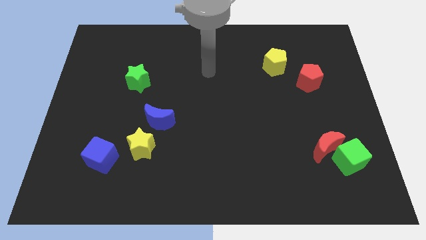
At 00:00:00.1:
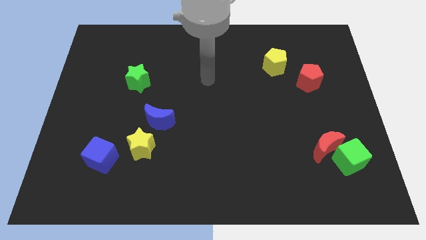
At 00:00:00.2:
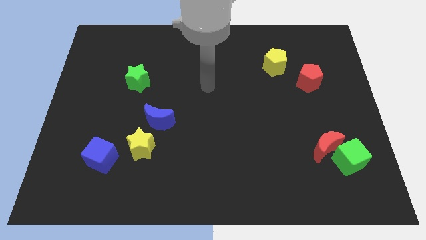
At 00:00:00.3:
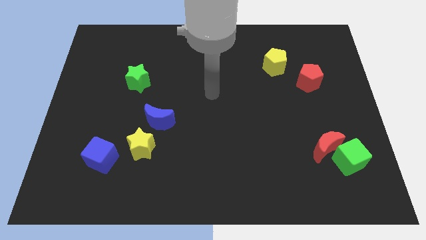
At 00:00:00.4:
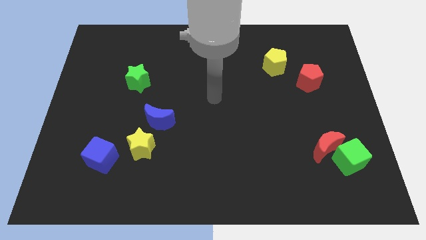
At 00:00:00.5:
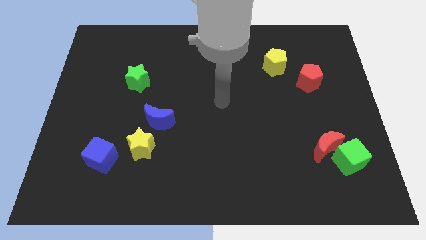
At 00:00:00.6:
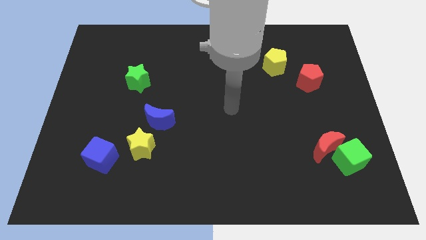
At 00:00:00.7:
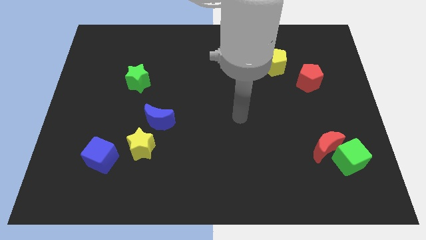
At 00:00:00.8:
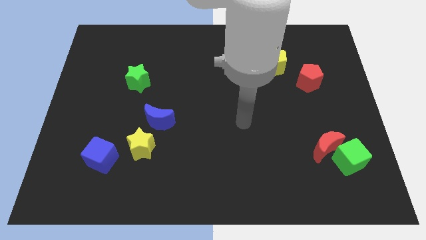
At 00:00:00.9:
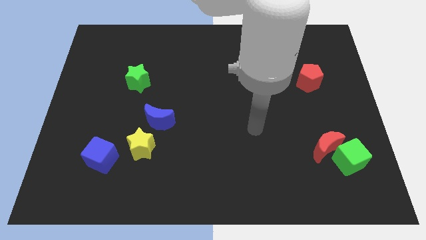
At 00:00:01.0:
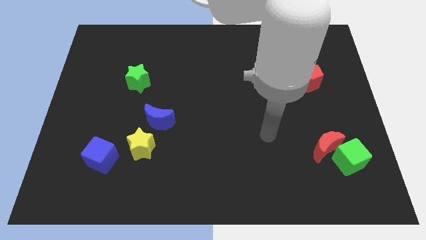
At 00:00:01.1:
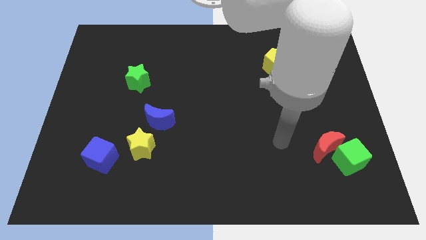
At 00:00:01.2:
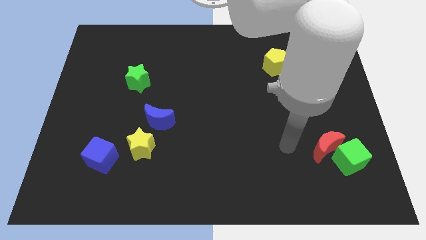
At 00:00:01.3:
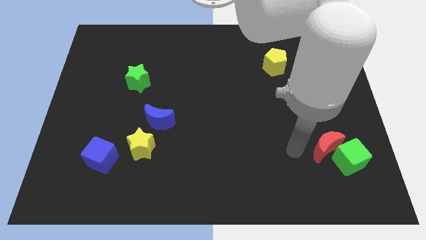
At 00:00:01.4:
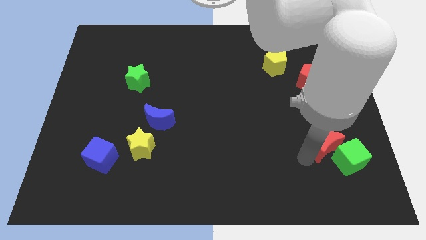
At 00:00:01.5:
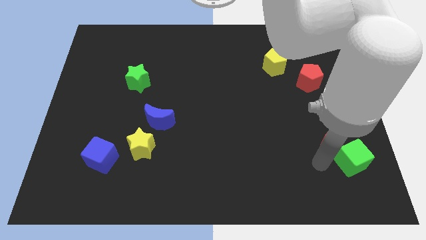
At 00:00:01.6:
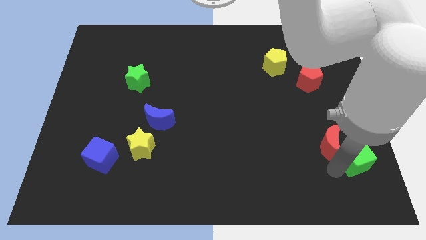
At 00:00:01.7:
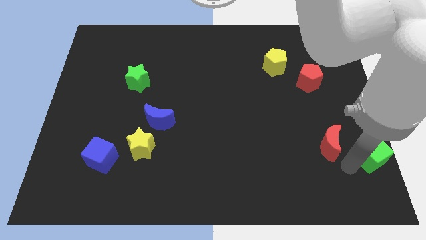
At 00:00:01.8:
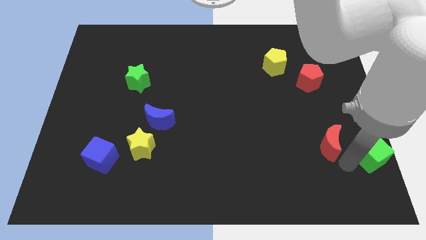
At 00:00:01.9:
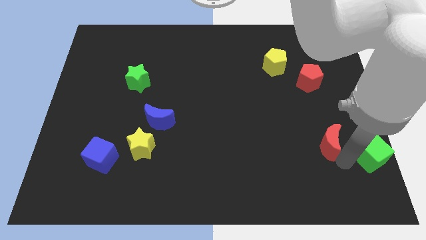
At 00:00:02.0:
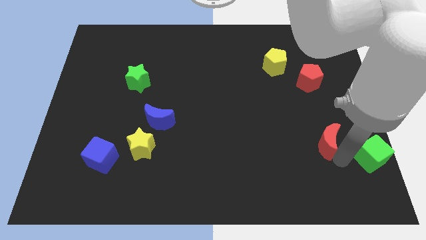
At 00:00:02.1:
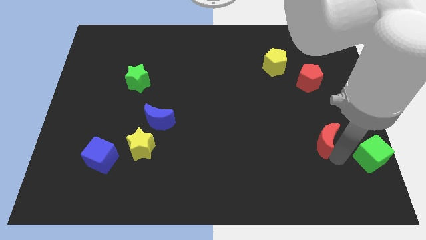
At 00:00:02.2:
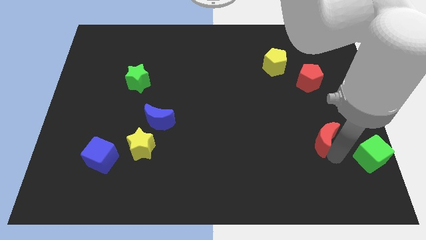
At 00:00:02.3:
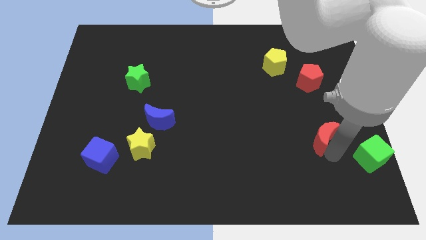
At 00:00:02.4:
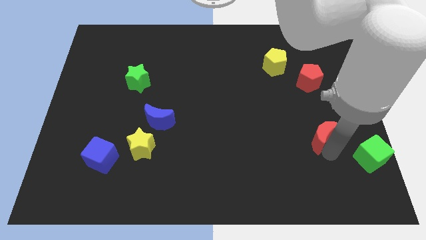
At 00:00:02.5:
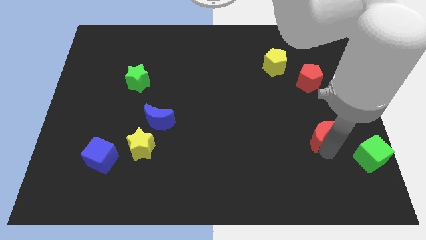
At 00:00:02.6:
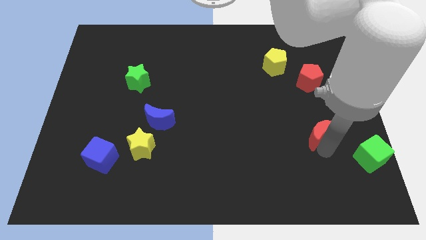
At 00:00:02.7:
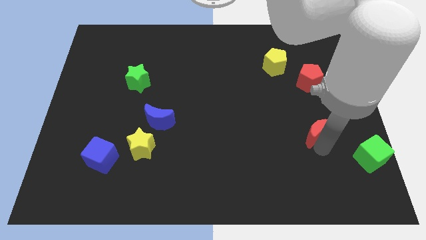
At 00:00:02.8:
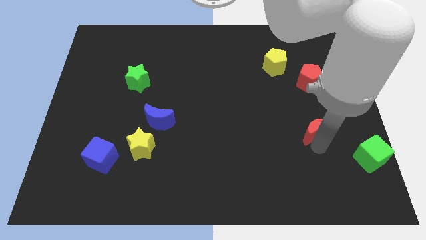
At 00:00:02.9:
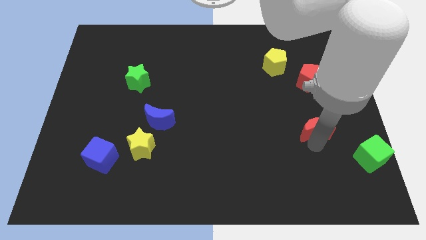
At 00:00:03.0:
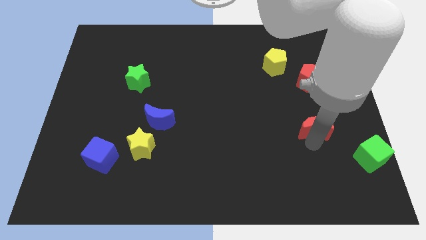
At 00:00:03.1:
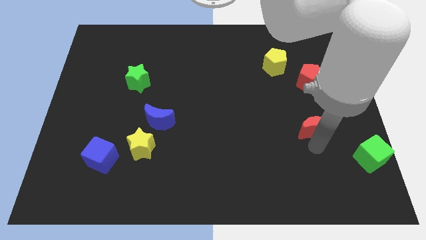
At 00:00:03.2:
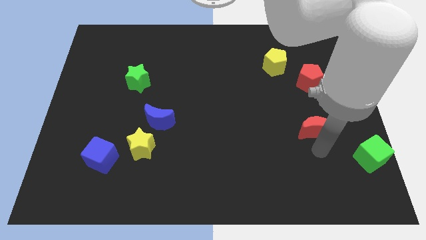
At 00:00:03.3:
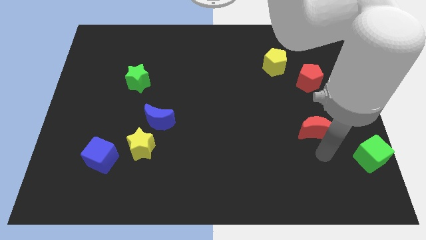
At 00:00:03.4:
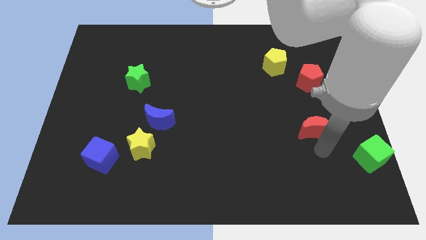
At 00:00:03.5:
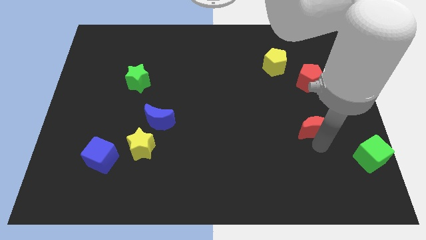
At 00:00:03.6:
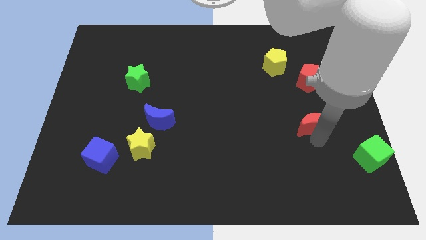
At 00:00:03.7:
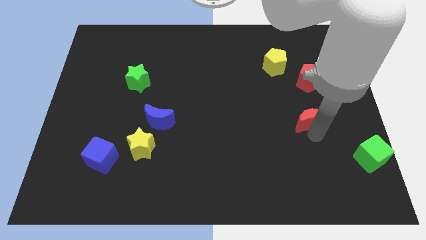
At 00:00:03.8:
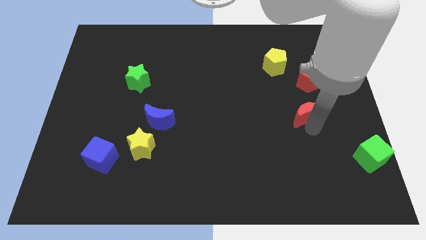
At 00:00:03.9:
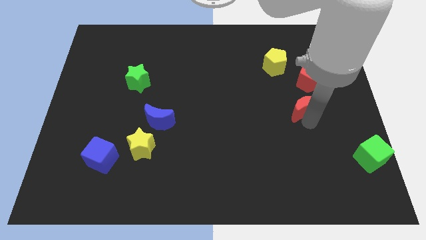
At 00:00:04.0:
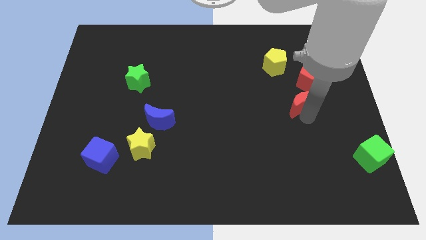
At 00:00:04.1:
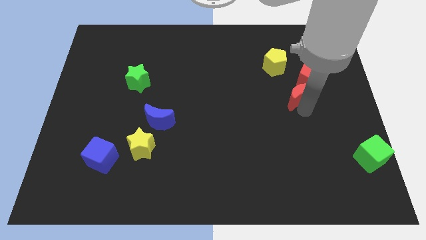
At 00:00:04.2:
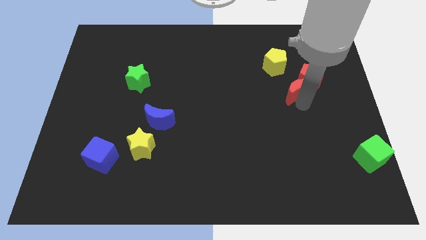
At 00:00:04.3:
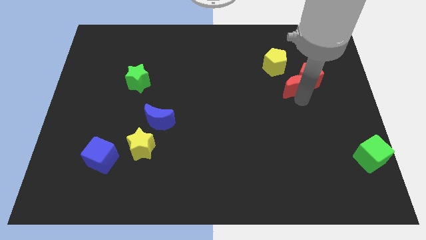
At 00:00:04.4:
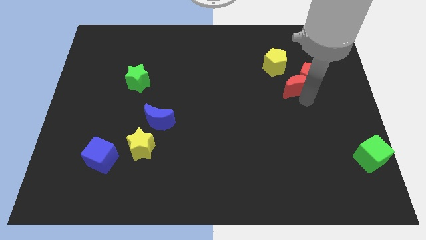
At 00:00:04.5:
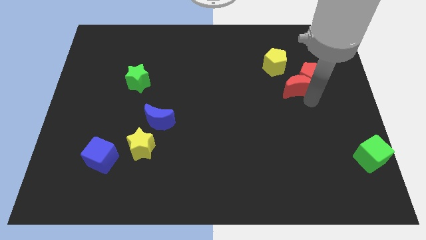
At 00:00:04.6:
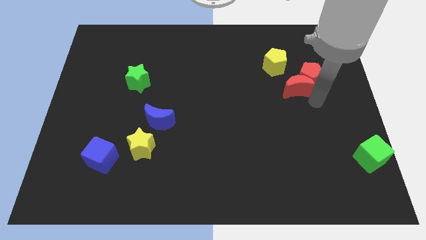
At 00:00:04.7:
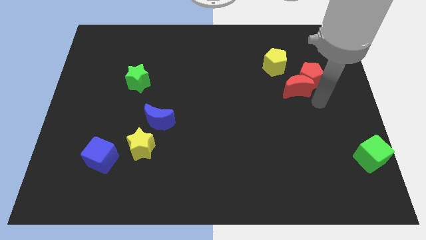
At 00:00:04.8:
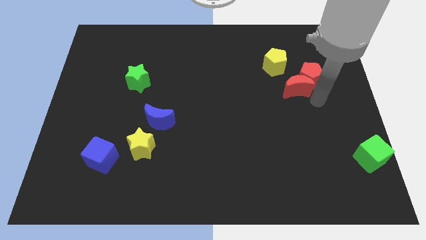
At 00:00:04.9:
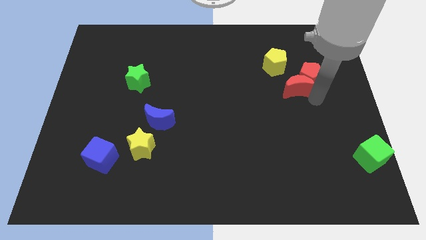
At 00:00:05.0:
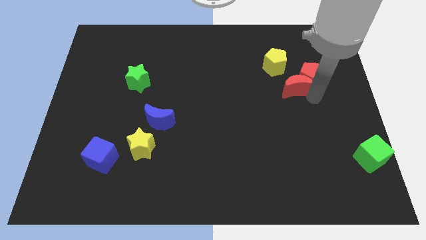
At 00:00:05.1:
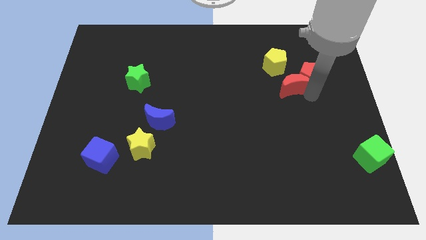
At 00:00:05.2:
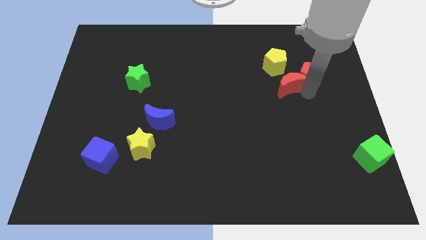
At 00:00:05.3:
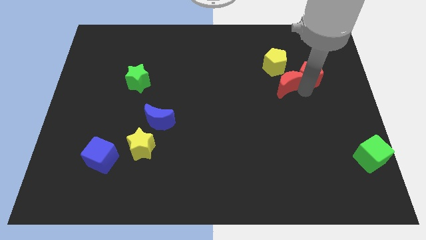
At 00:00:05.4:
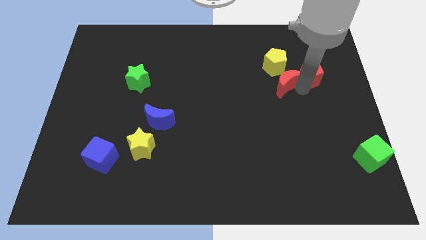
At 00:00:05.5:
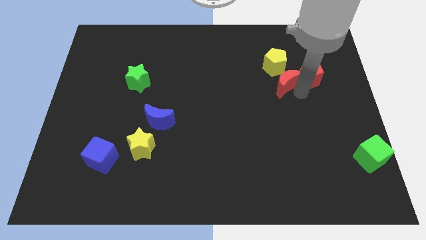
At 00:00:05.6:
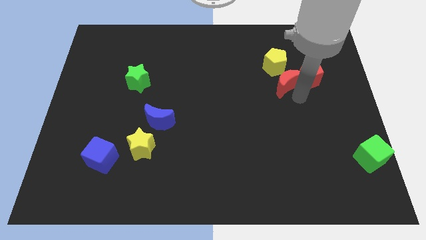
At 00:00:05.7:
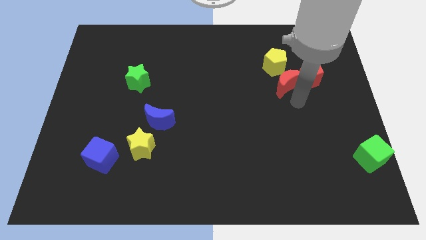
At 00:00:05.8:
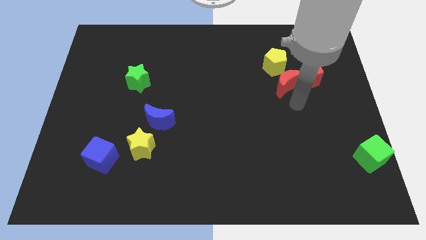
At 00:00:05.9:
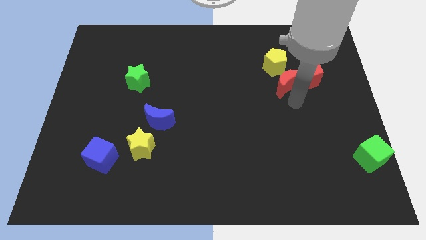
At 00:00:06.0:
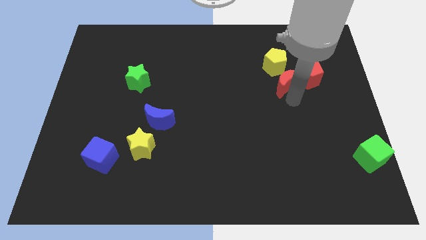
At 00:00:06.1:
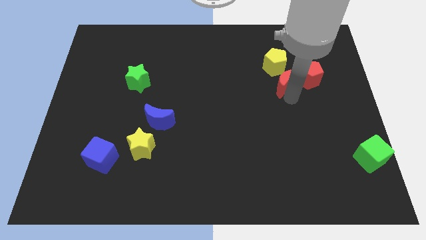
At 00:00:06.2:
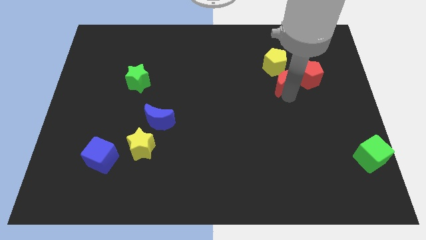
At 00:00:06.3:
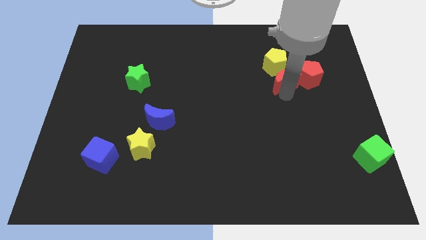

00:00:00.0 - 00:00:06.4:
put the red moon close to the yellow pentagon
